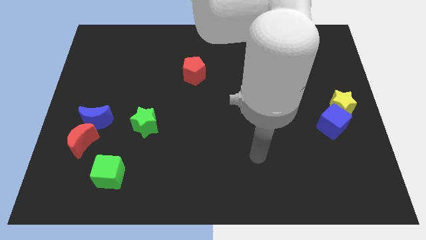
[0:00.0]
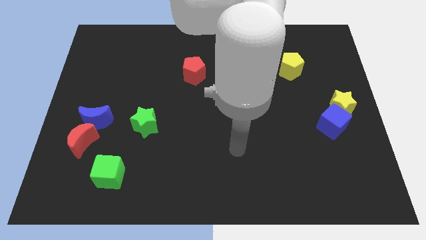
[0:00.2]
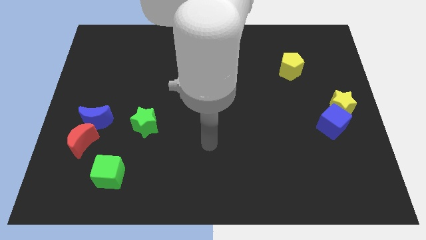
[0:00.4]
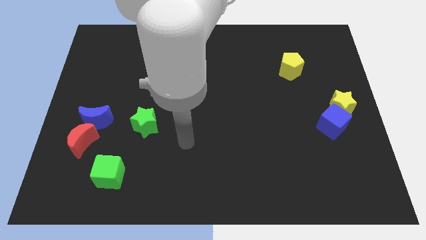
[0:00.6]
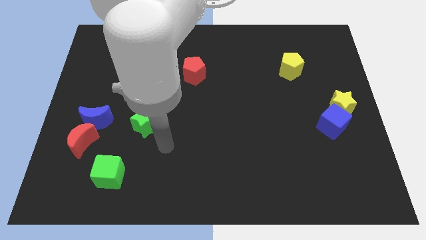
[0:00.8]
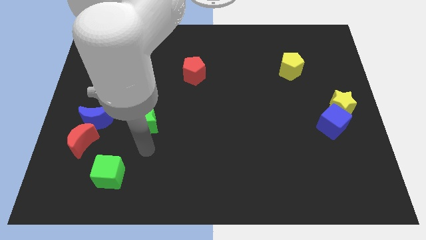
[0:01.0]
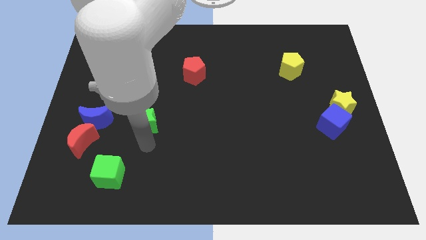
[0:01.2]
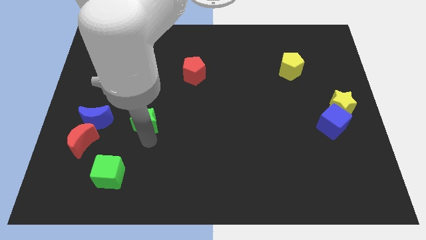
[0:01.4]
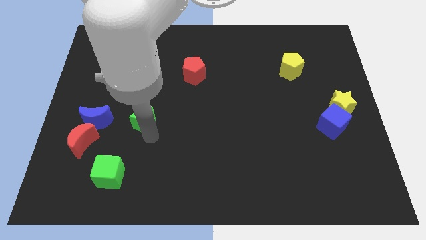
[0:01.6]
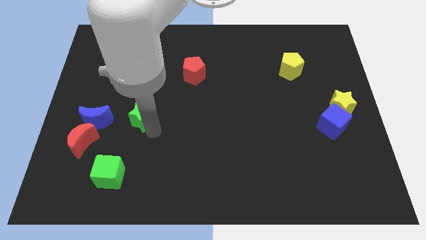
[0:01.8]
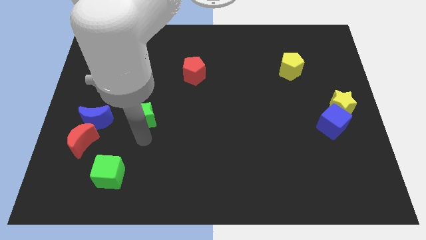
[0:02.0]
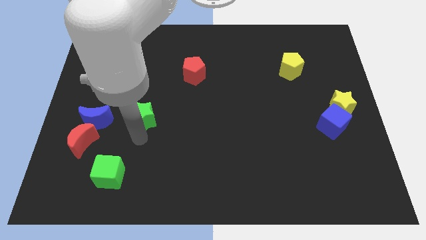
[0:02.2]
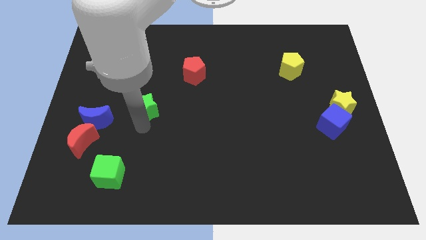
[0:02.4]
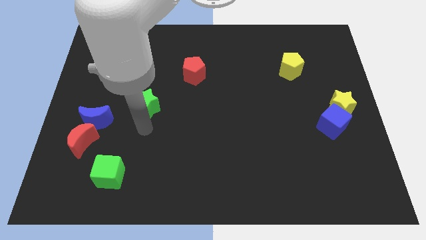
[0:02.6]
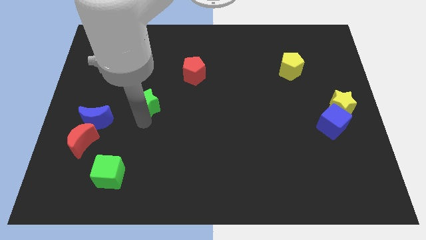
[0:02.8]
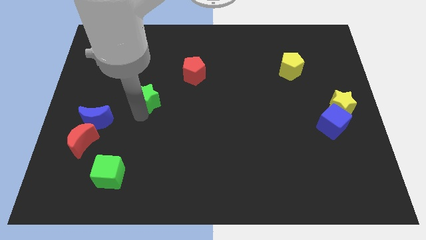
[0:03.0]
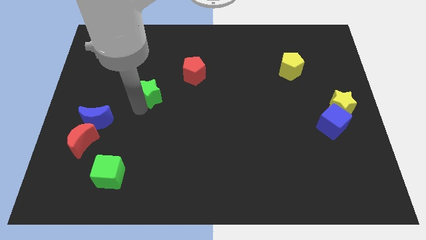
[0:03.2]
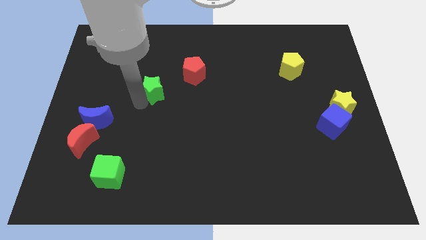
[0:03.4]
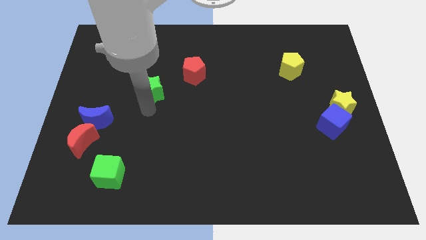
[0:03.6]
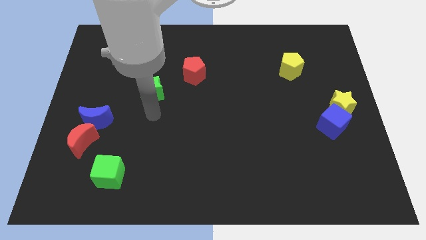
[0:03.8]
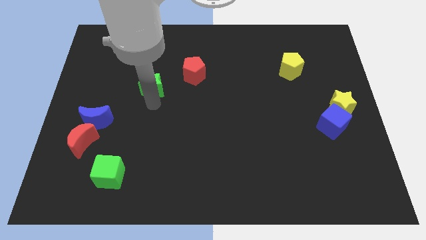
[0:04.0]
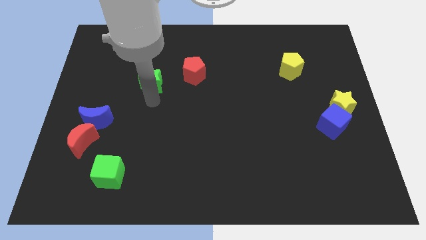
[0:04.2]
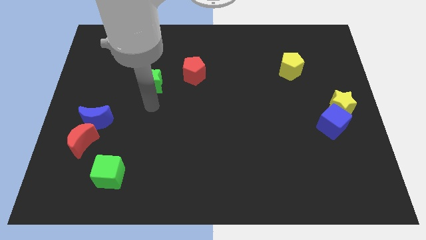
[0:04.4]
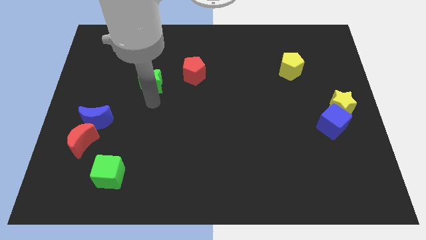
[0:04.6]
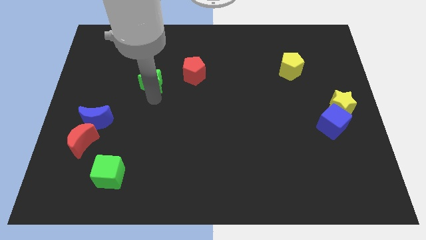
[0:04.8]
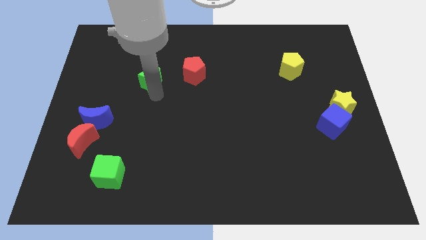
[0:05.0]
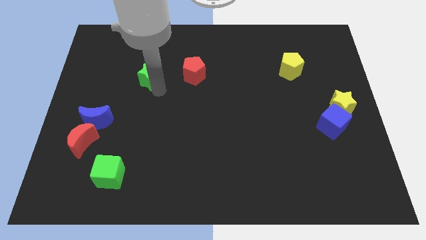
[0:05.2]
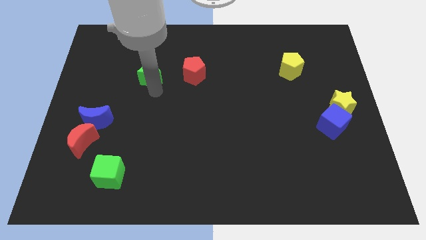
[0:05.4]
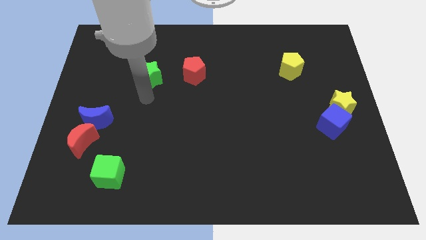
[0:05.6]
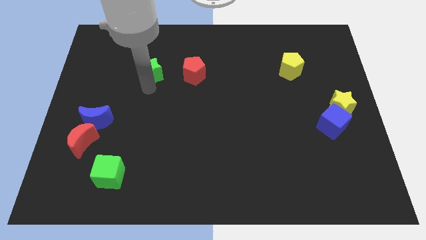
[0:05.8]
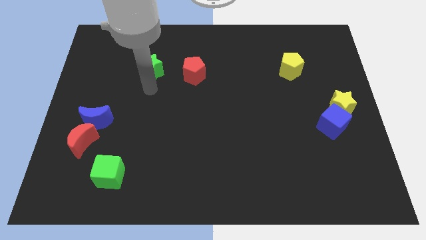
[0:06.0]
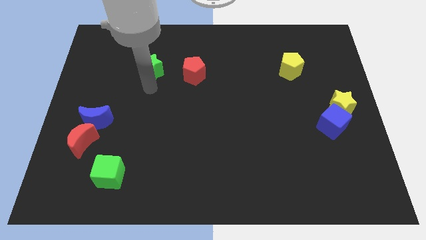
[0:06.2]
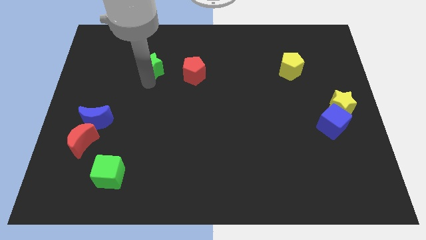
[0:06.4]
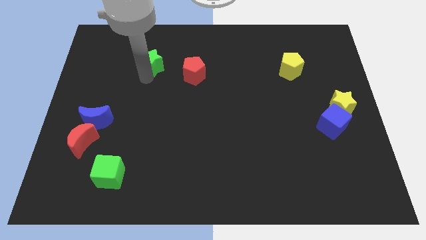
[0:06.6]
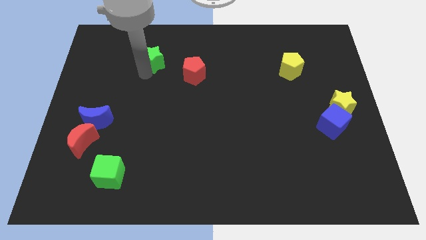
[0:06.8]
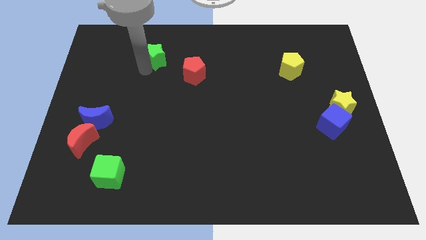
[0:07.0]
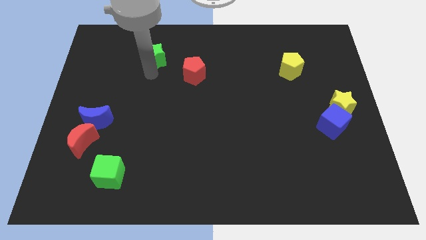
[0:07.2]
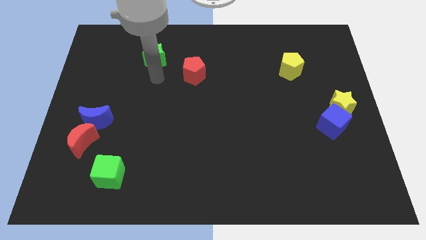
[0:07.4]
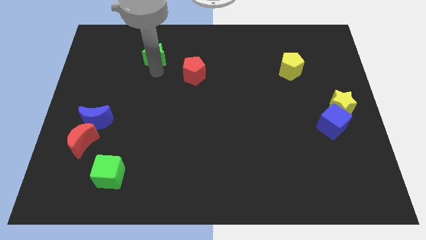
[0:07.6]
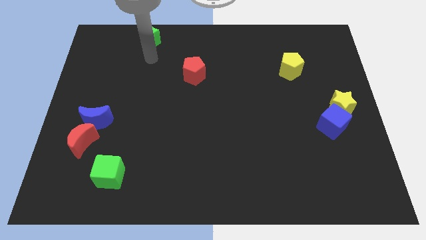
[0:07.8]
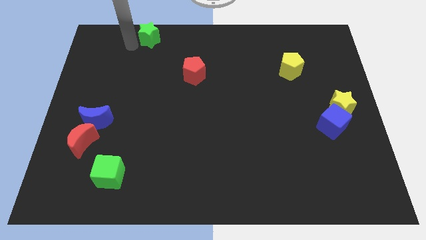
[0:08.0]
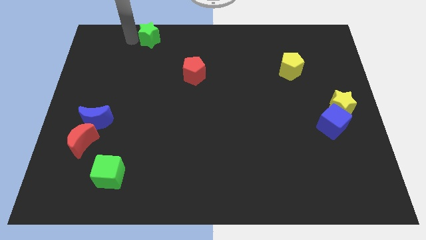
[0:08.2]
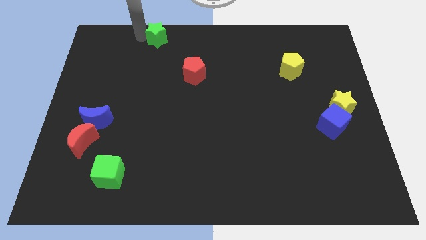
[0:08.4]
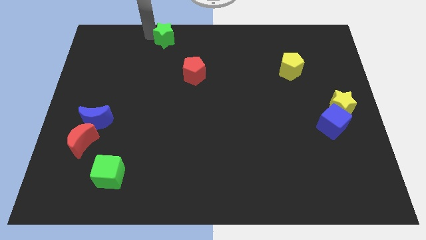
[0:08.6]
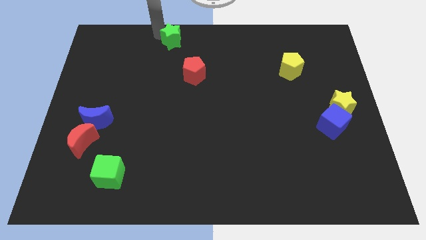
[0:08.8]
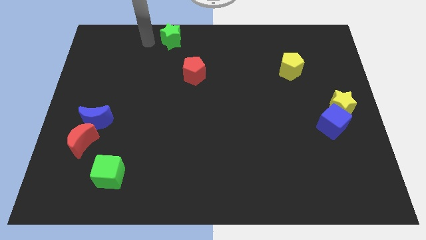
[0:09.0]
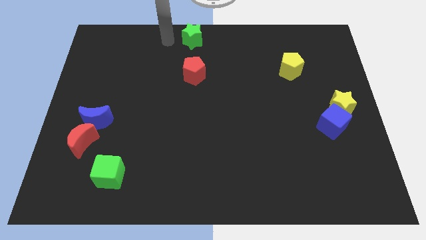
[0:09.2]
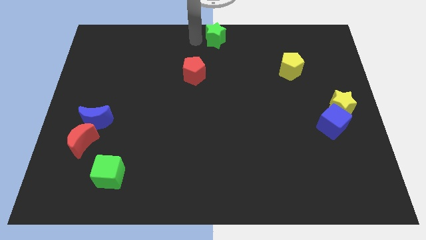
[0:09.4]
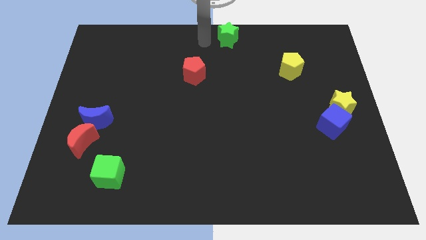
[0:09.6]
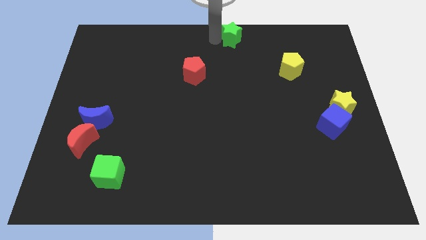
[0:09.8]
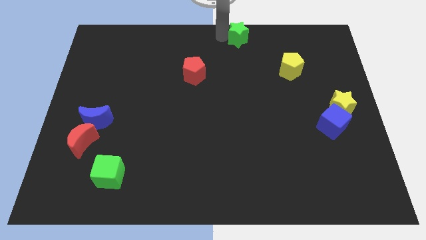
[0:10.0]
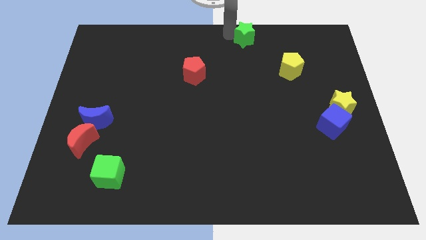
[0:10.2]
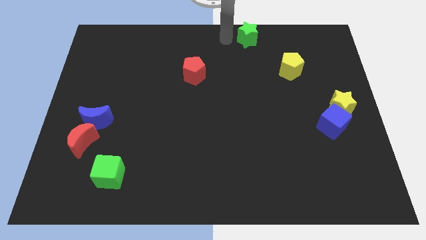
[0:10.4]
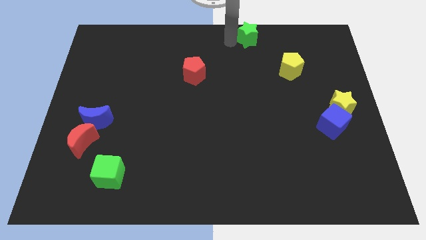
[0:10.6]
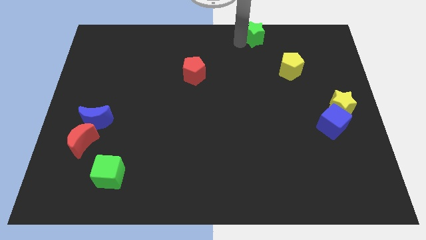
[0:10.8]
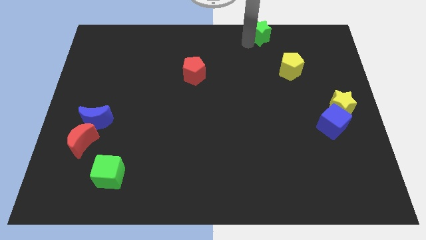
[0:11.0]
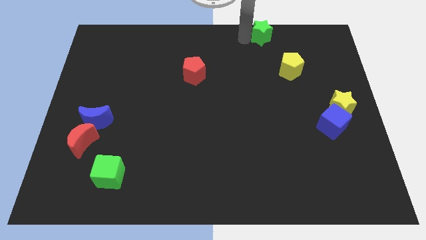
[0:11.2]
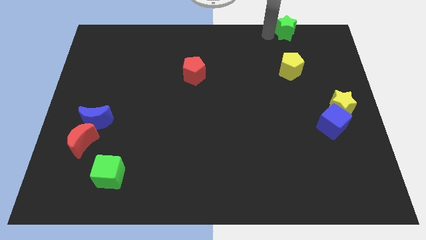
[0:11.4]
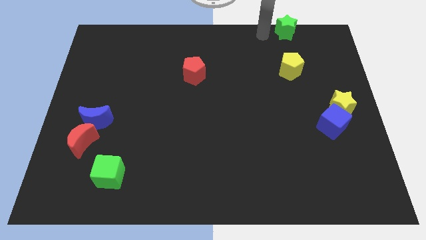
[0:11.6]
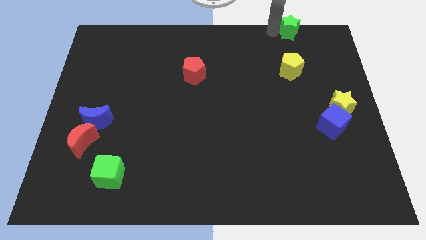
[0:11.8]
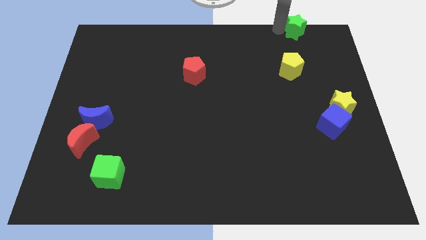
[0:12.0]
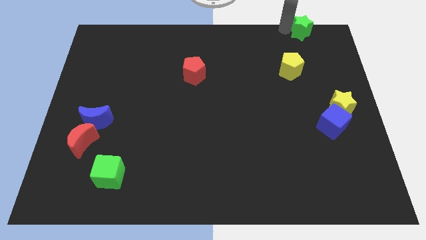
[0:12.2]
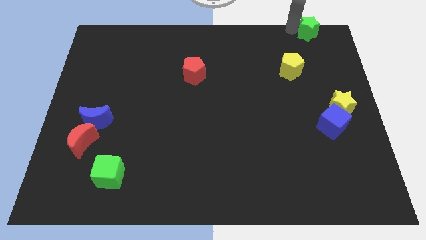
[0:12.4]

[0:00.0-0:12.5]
put the green star to the top right
